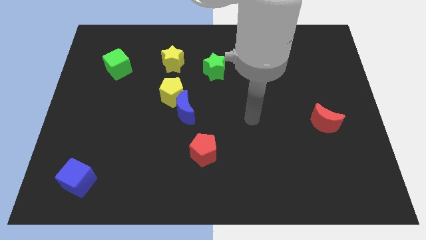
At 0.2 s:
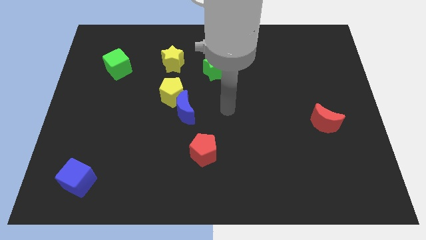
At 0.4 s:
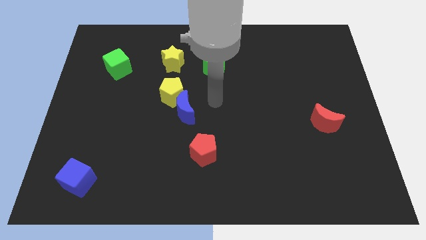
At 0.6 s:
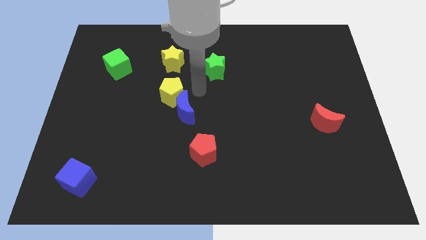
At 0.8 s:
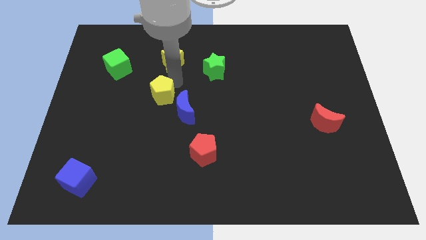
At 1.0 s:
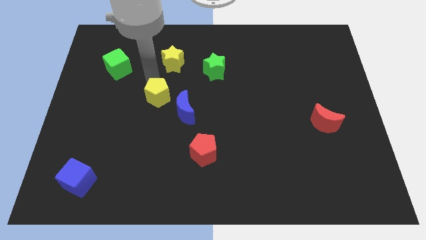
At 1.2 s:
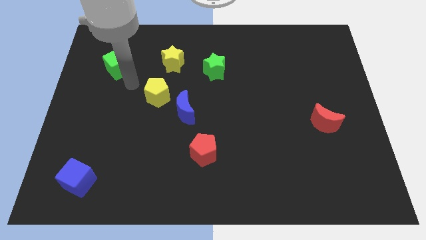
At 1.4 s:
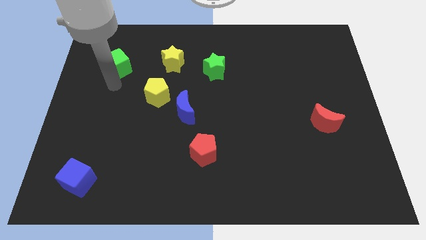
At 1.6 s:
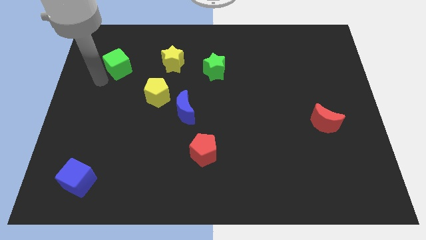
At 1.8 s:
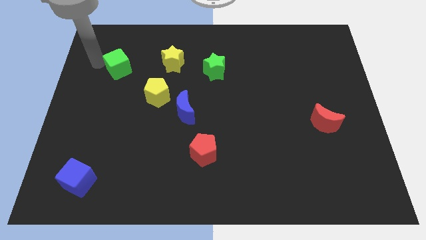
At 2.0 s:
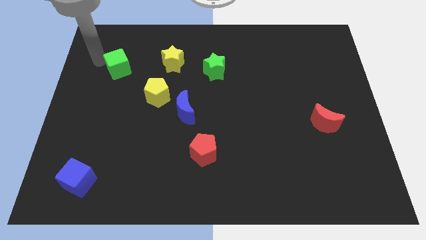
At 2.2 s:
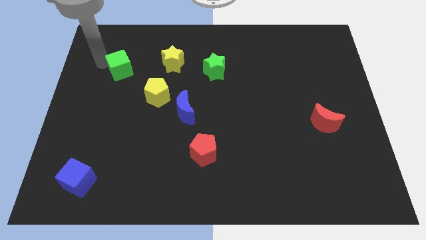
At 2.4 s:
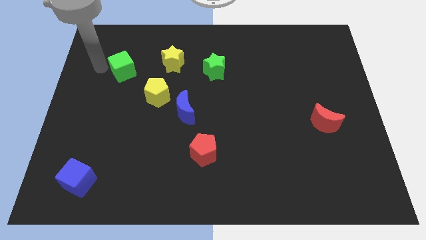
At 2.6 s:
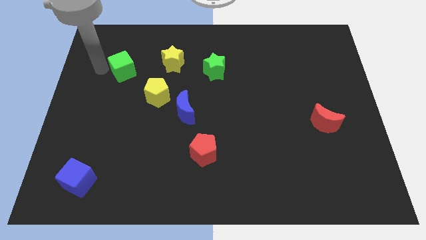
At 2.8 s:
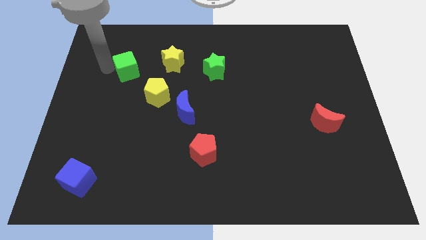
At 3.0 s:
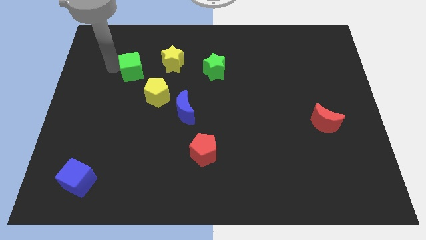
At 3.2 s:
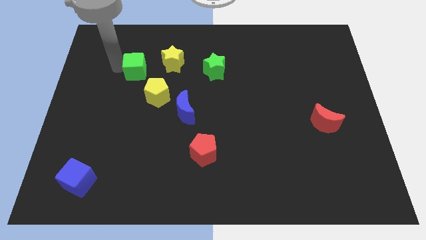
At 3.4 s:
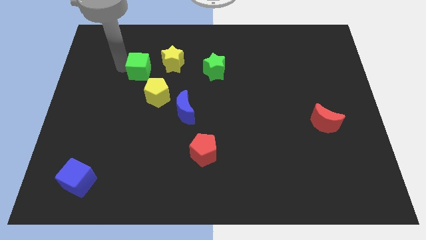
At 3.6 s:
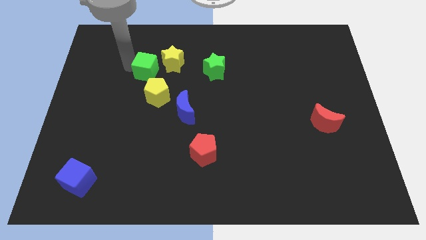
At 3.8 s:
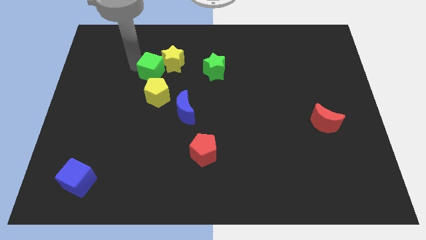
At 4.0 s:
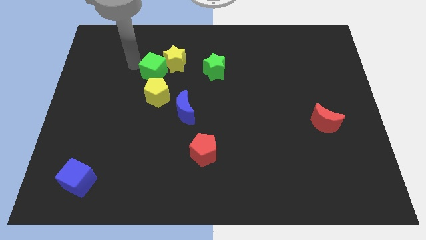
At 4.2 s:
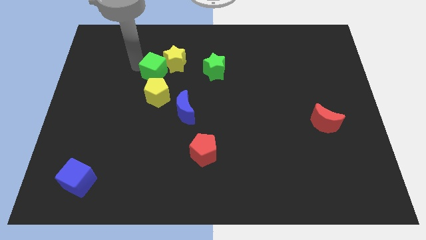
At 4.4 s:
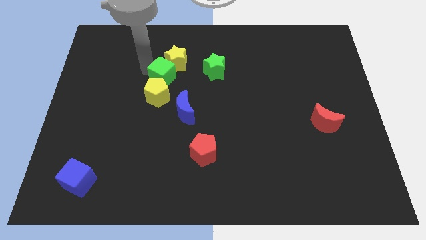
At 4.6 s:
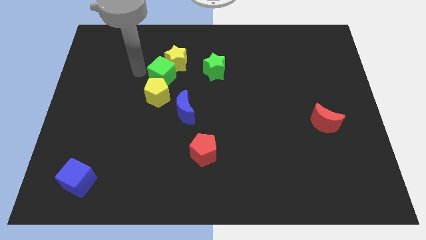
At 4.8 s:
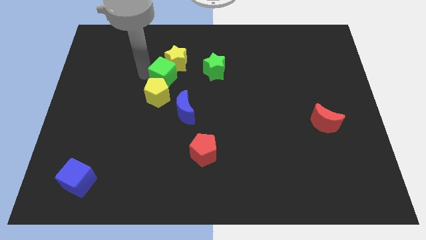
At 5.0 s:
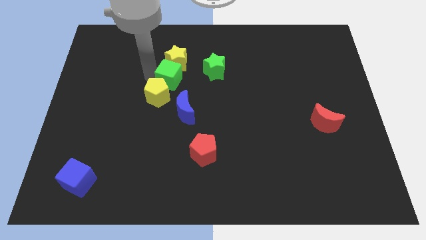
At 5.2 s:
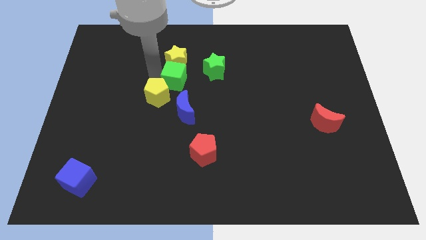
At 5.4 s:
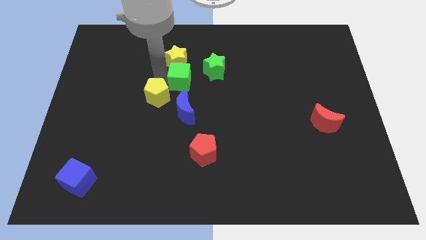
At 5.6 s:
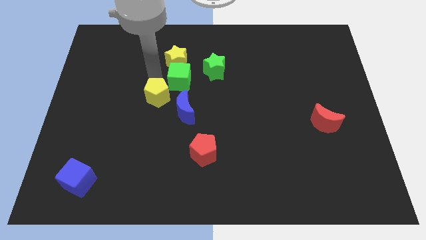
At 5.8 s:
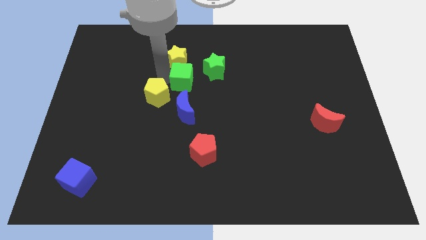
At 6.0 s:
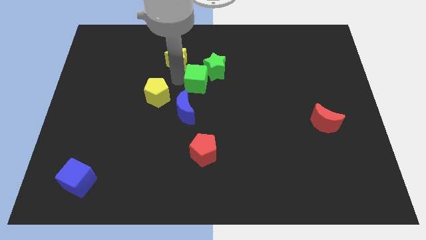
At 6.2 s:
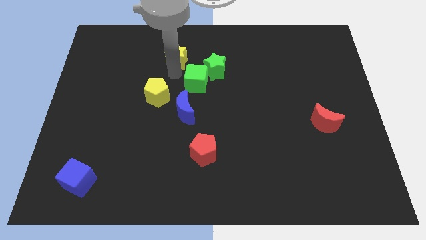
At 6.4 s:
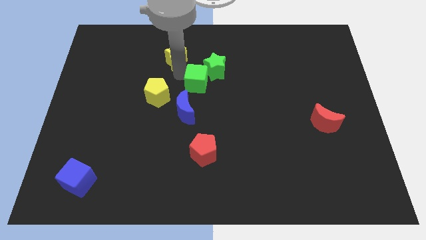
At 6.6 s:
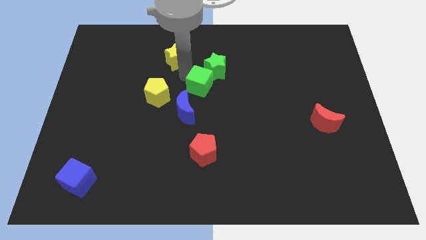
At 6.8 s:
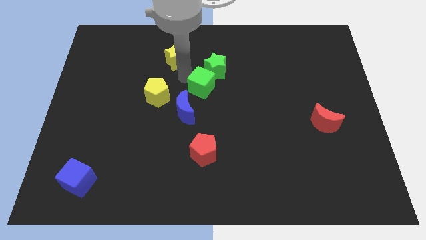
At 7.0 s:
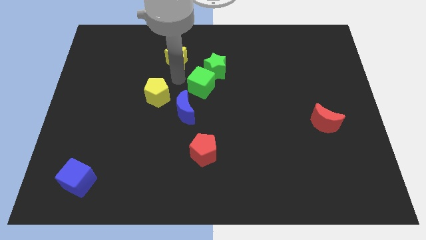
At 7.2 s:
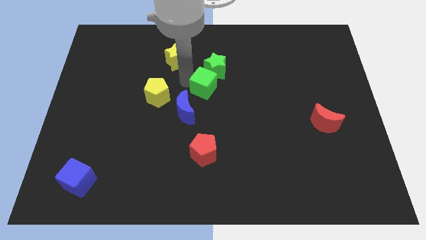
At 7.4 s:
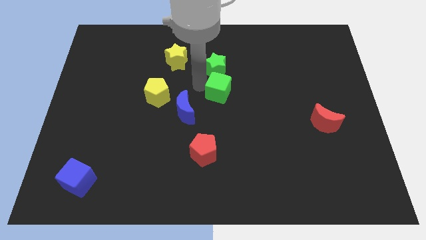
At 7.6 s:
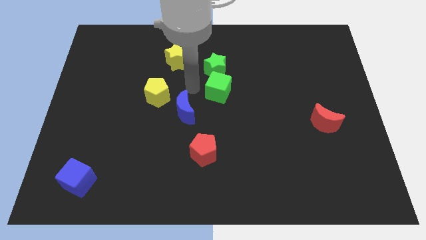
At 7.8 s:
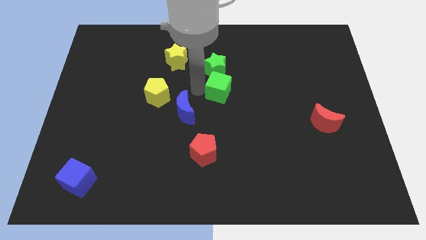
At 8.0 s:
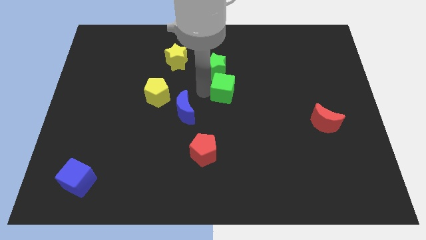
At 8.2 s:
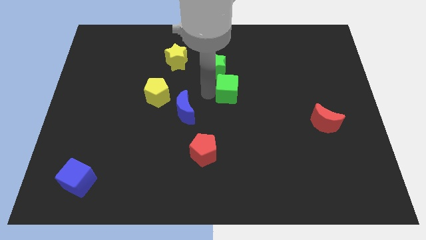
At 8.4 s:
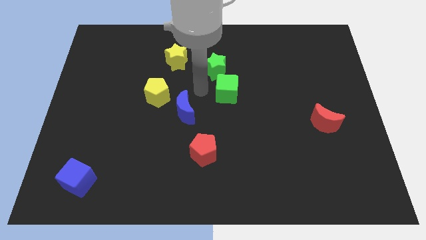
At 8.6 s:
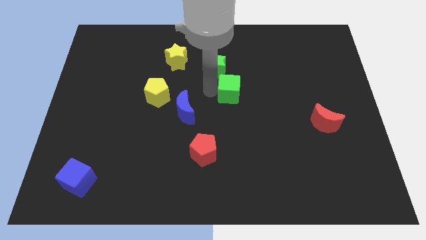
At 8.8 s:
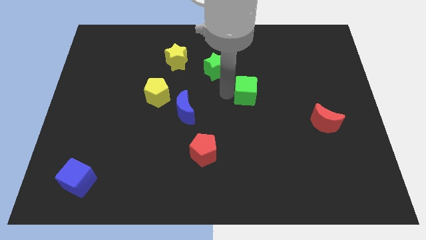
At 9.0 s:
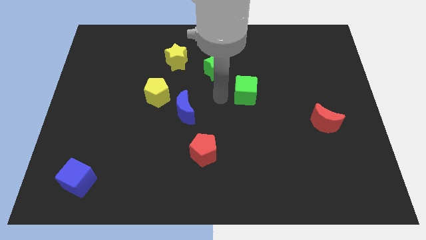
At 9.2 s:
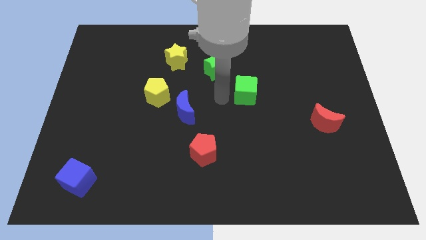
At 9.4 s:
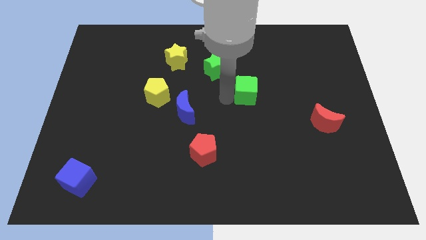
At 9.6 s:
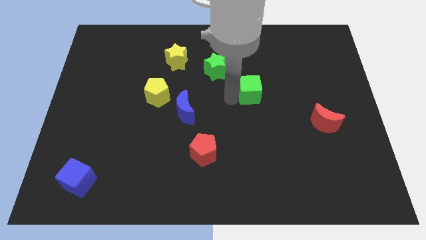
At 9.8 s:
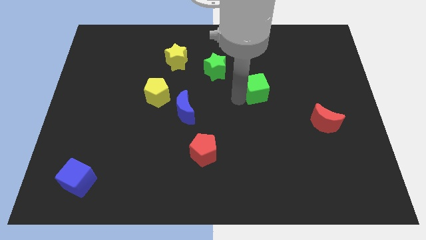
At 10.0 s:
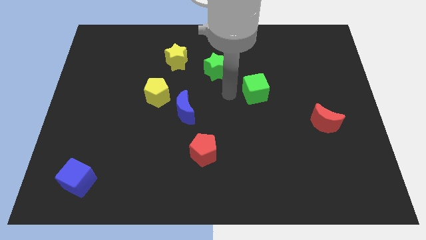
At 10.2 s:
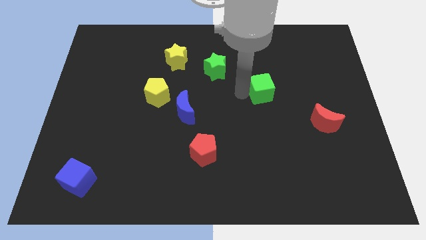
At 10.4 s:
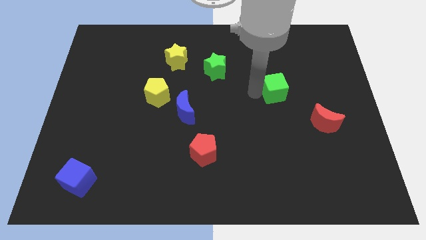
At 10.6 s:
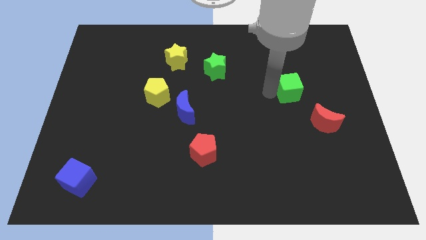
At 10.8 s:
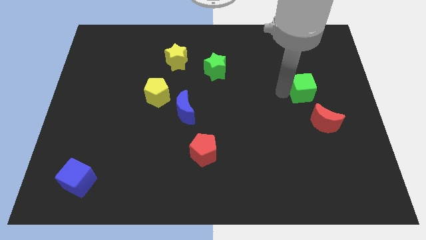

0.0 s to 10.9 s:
push the green cube above the red moon

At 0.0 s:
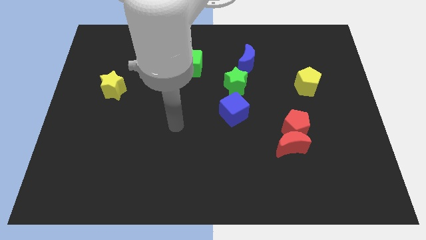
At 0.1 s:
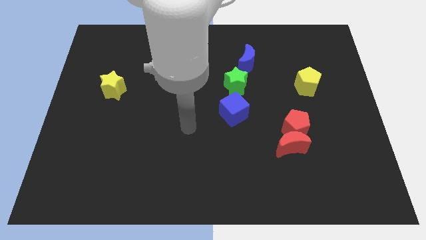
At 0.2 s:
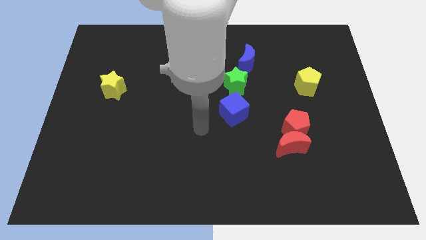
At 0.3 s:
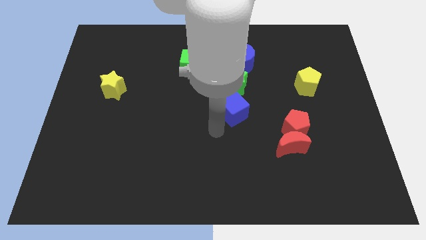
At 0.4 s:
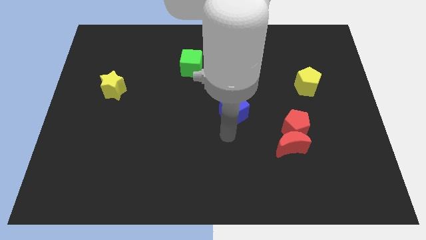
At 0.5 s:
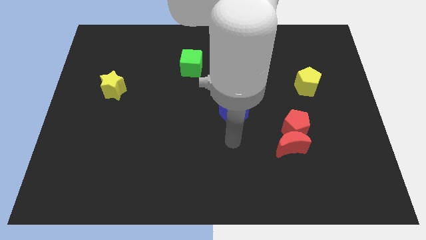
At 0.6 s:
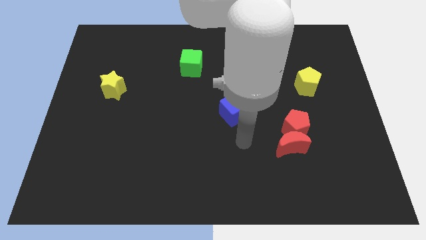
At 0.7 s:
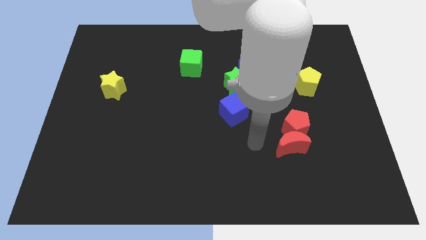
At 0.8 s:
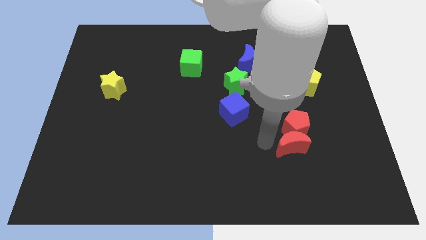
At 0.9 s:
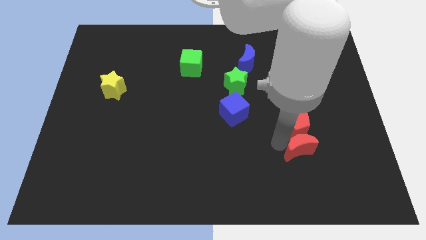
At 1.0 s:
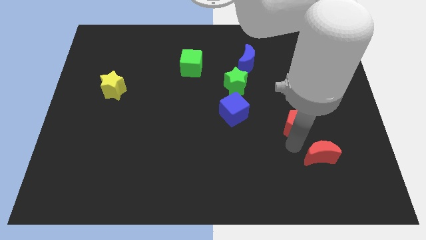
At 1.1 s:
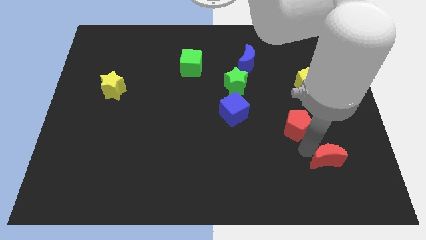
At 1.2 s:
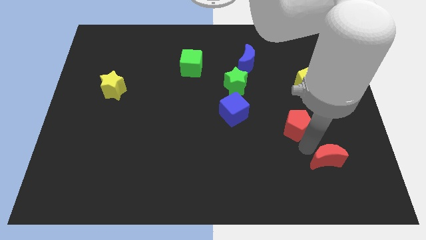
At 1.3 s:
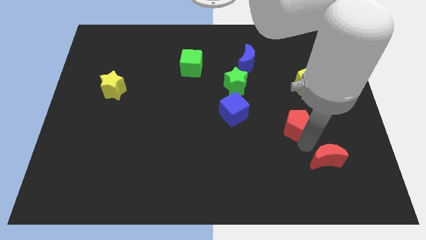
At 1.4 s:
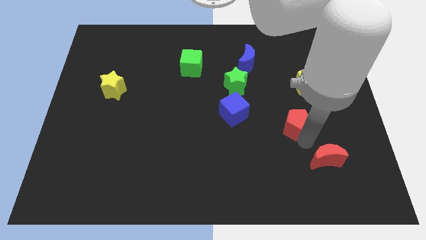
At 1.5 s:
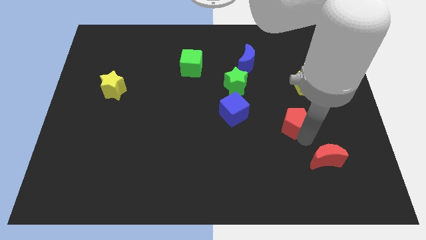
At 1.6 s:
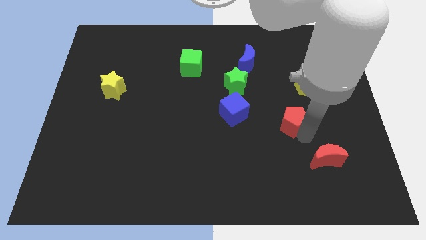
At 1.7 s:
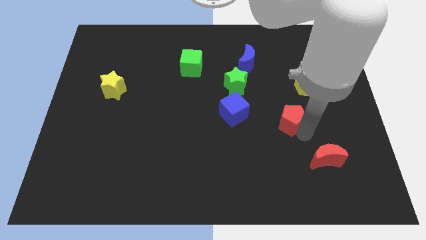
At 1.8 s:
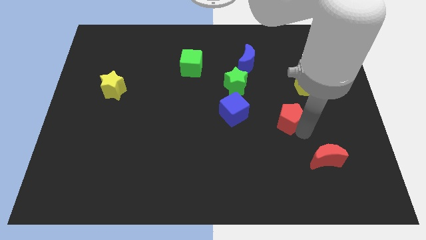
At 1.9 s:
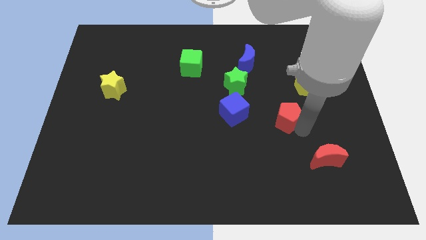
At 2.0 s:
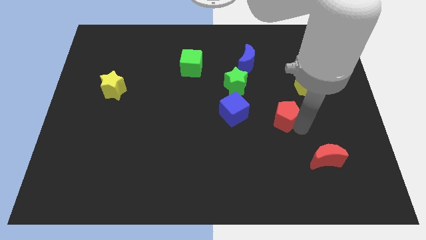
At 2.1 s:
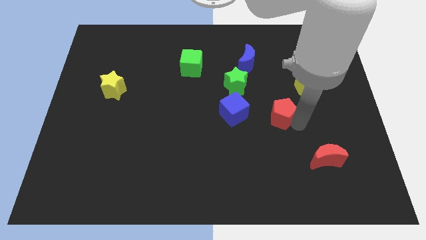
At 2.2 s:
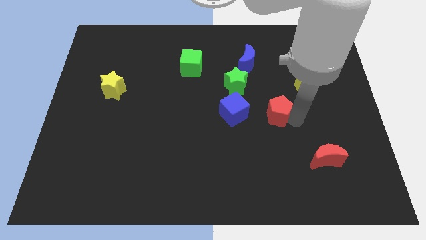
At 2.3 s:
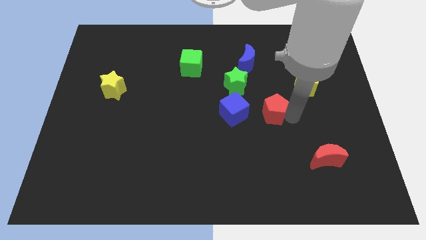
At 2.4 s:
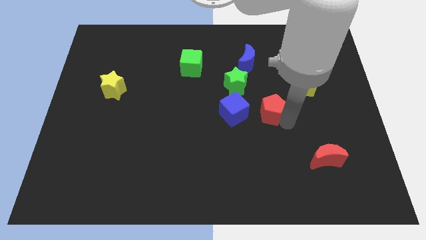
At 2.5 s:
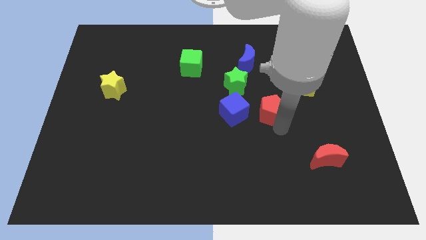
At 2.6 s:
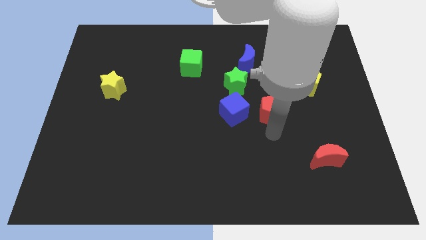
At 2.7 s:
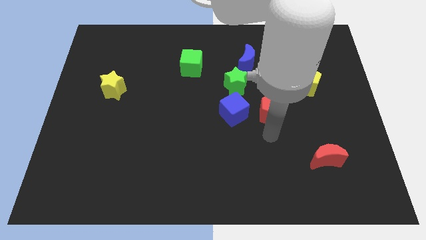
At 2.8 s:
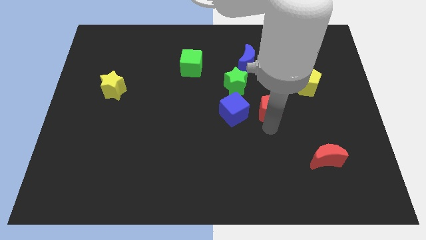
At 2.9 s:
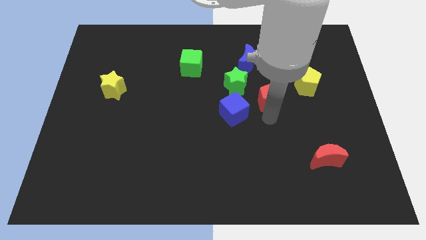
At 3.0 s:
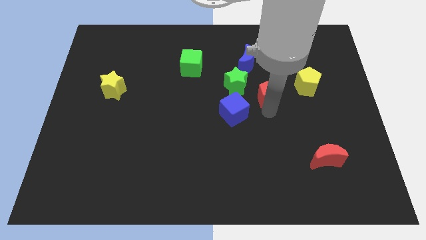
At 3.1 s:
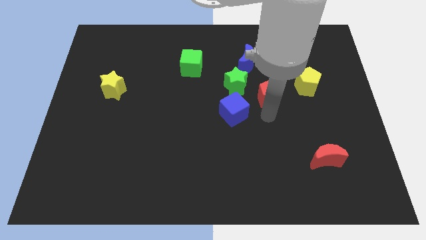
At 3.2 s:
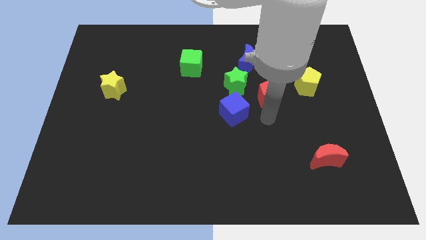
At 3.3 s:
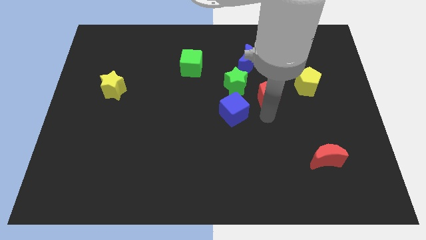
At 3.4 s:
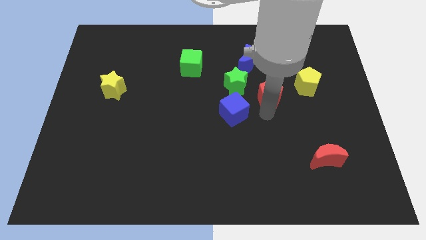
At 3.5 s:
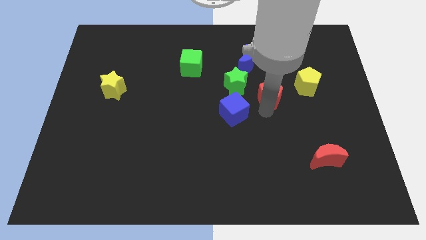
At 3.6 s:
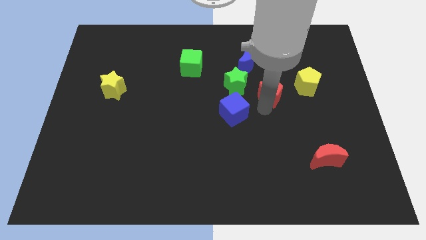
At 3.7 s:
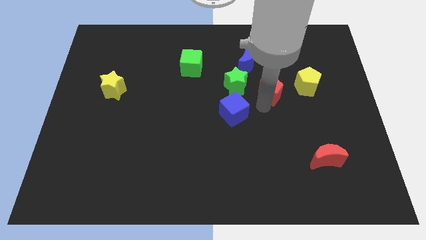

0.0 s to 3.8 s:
slide the red pentagon diagonally down and to the right of the blue moon
